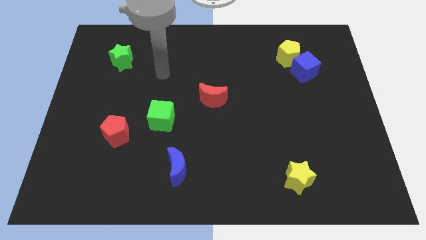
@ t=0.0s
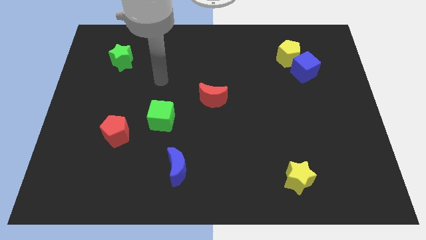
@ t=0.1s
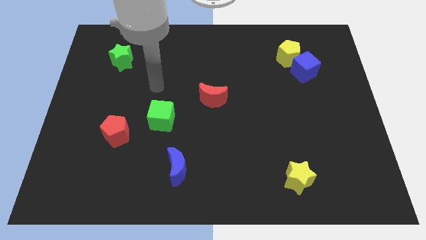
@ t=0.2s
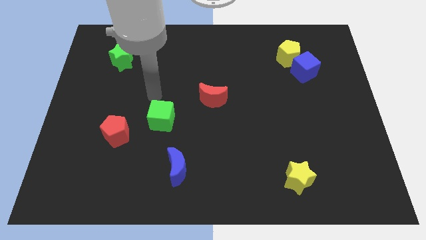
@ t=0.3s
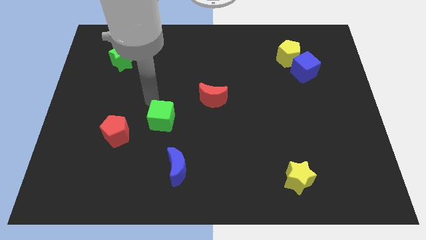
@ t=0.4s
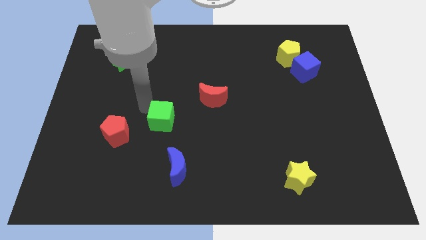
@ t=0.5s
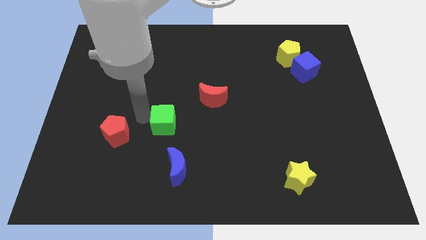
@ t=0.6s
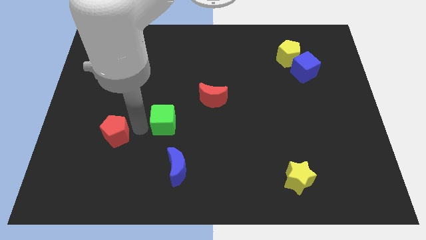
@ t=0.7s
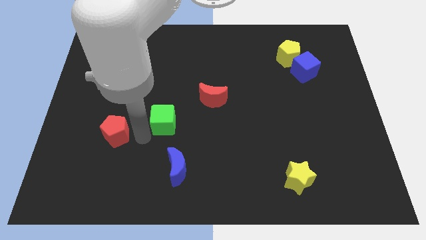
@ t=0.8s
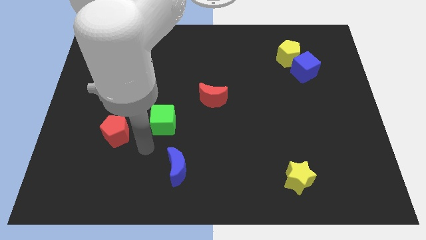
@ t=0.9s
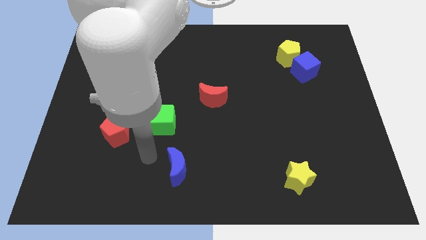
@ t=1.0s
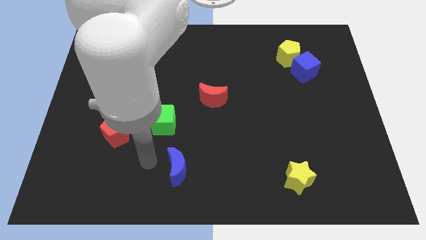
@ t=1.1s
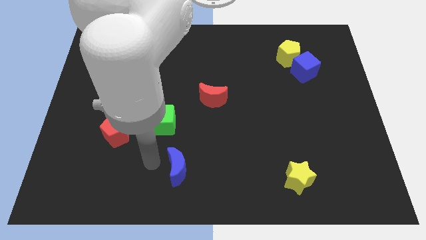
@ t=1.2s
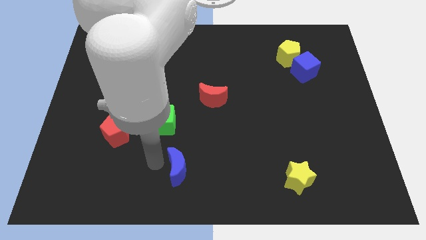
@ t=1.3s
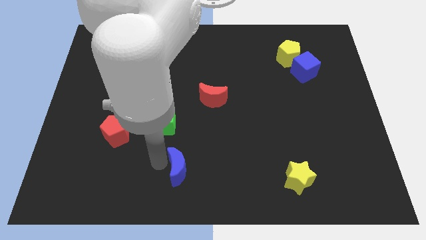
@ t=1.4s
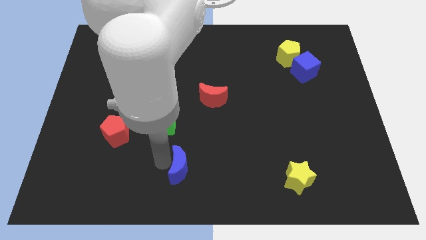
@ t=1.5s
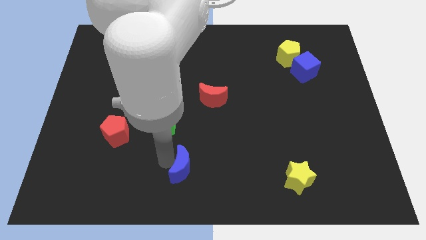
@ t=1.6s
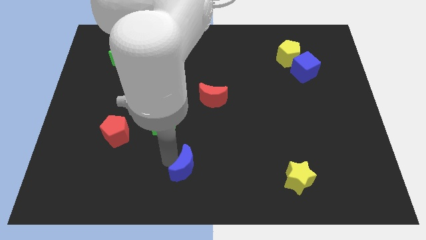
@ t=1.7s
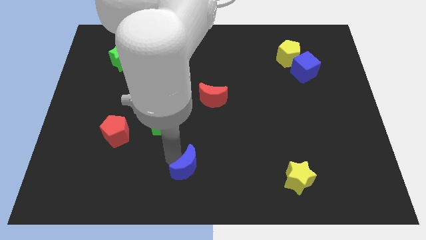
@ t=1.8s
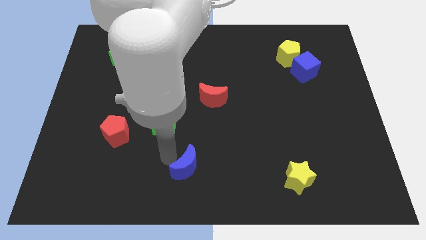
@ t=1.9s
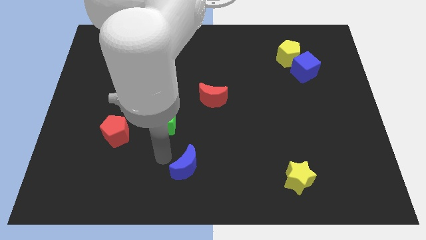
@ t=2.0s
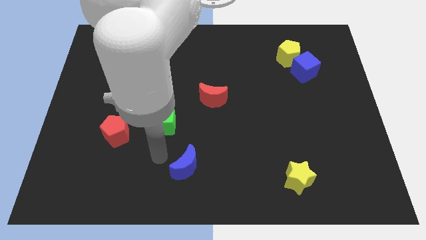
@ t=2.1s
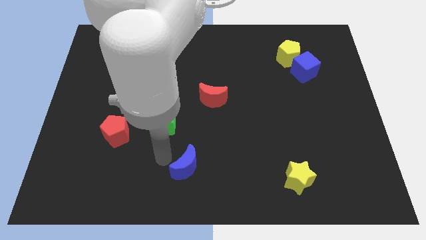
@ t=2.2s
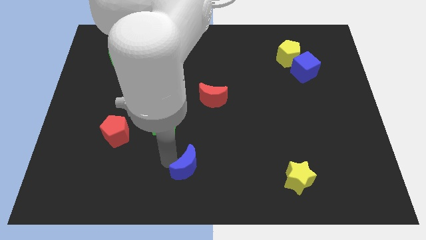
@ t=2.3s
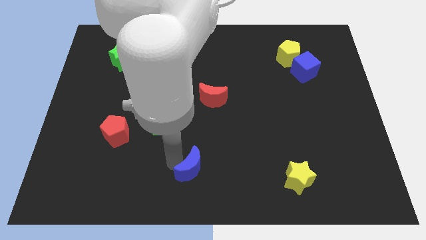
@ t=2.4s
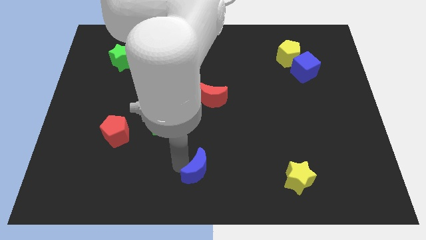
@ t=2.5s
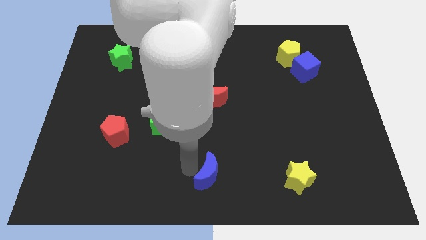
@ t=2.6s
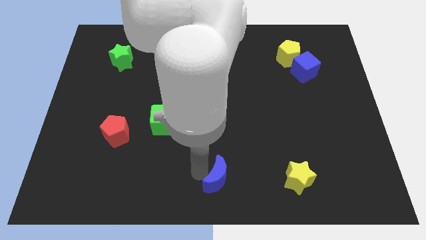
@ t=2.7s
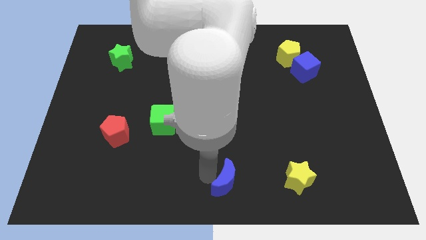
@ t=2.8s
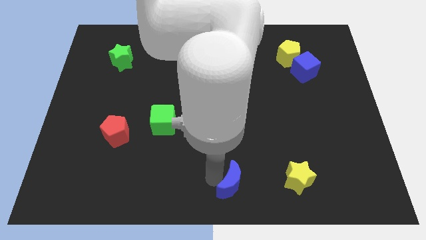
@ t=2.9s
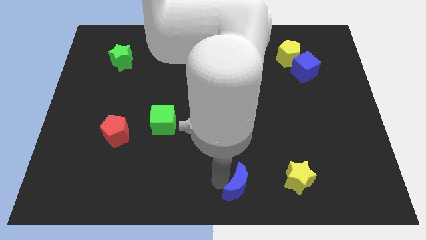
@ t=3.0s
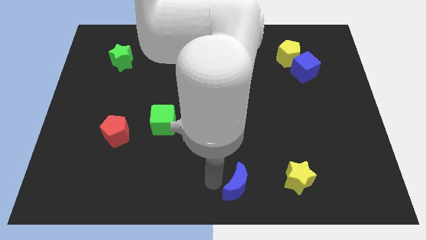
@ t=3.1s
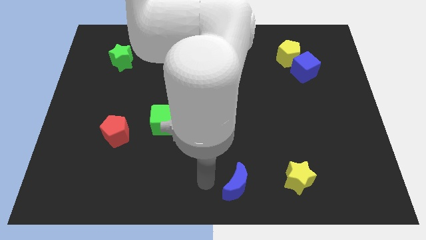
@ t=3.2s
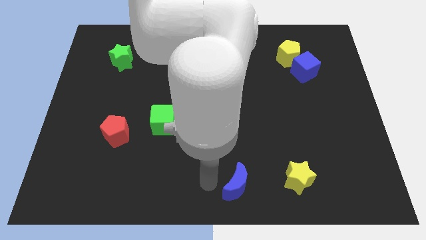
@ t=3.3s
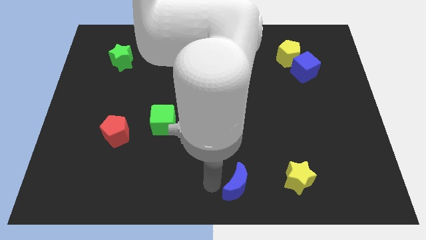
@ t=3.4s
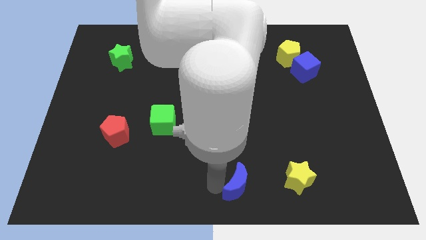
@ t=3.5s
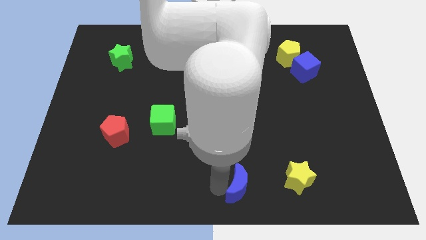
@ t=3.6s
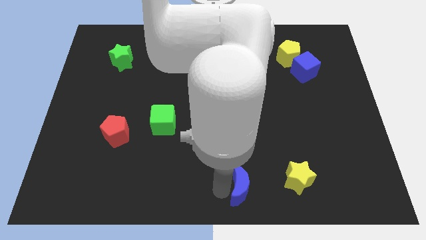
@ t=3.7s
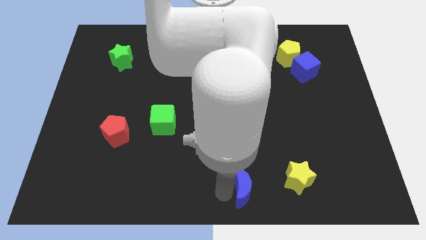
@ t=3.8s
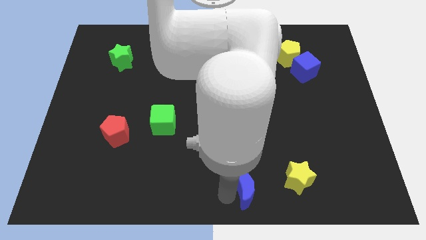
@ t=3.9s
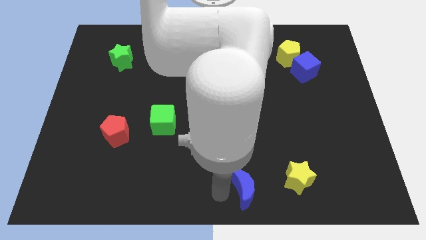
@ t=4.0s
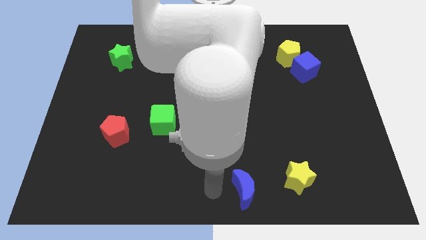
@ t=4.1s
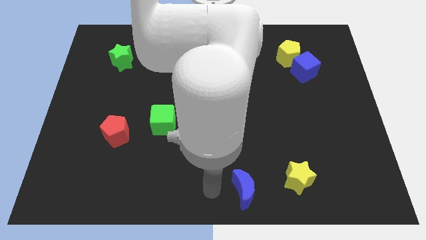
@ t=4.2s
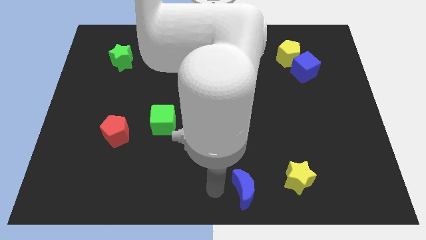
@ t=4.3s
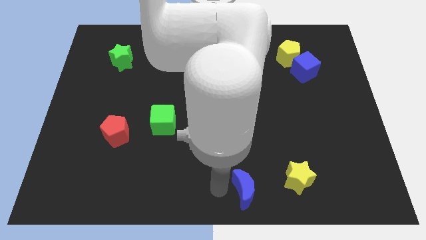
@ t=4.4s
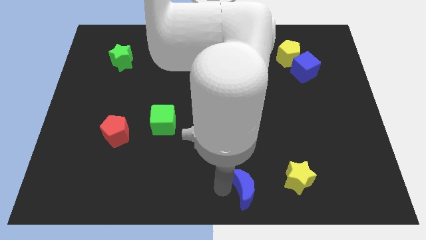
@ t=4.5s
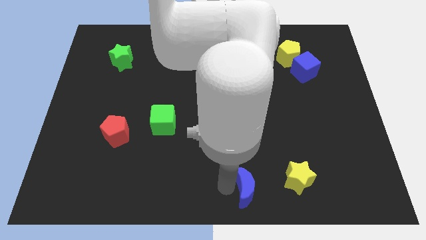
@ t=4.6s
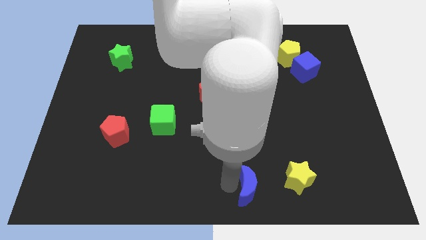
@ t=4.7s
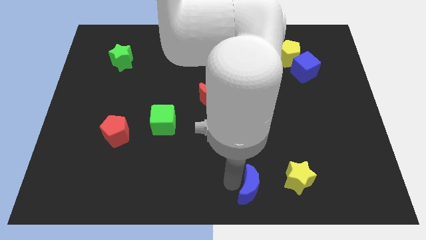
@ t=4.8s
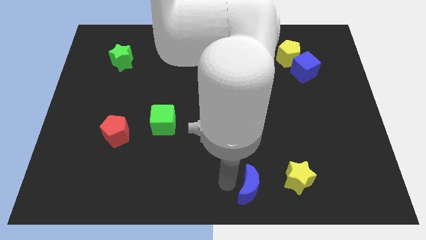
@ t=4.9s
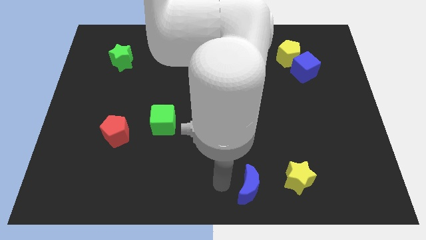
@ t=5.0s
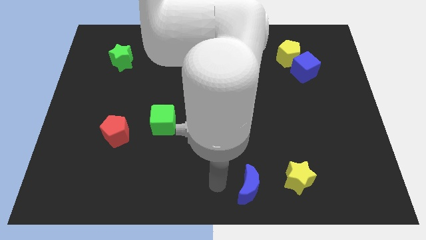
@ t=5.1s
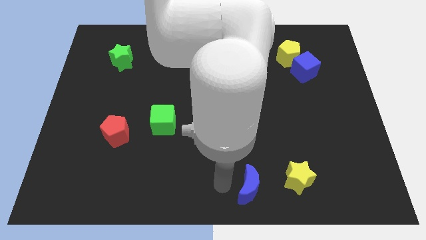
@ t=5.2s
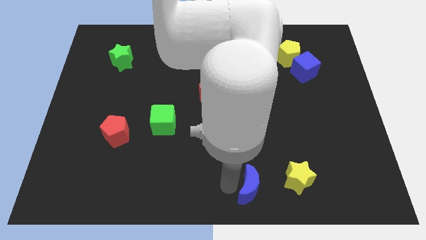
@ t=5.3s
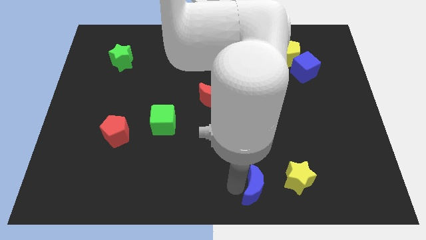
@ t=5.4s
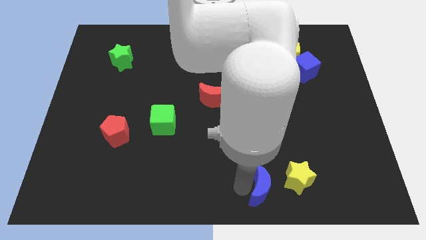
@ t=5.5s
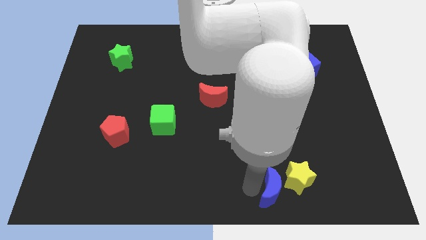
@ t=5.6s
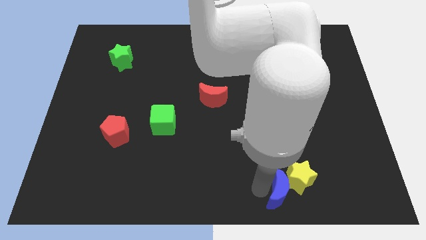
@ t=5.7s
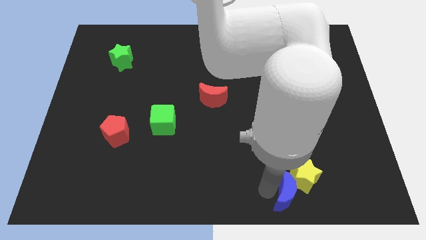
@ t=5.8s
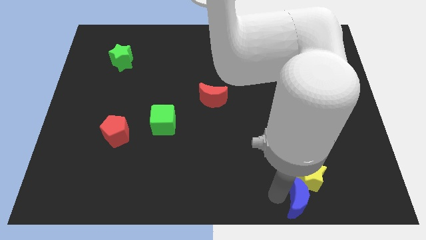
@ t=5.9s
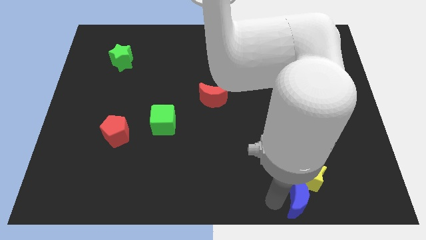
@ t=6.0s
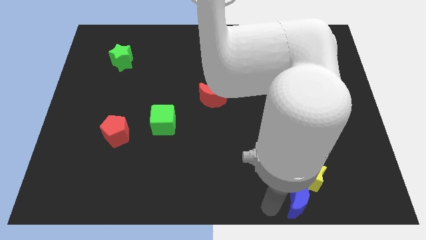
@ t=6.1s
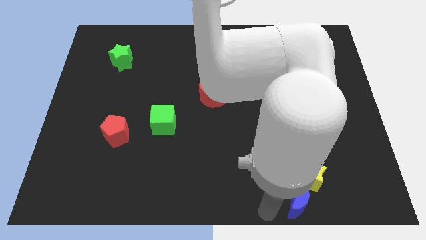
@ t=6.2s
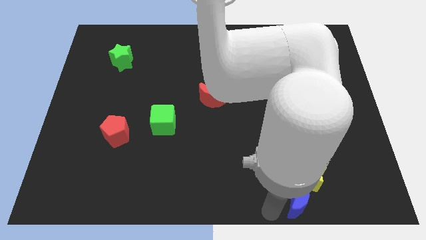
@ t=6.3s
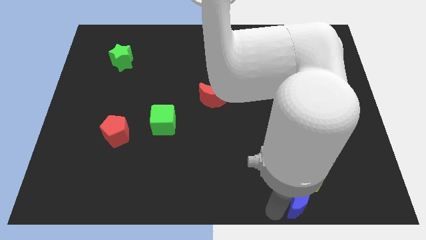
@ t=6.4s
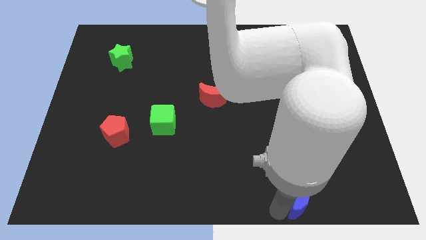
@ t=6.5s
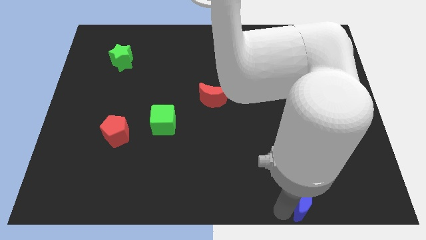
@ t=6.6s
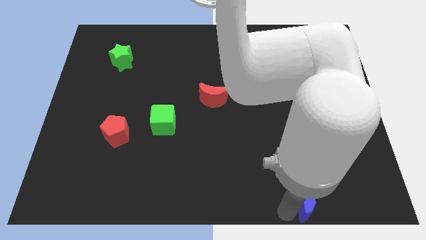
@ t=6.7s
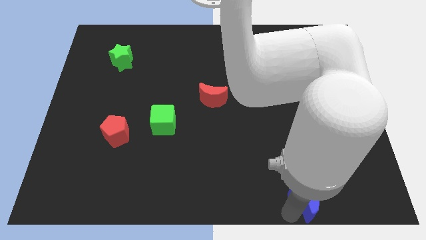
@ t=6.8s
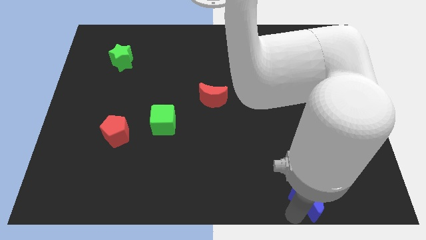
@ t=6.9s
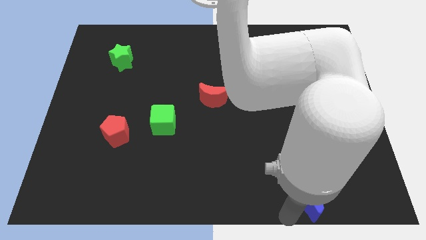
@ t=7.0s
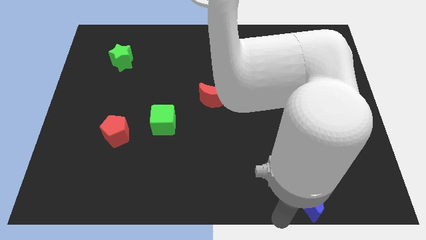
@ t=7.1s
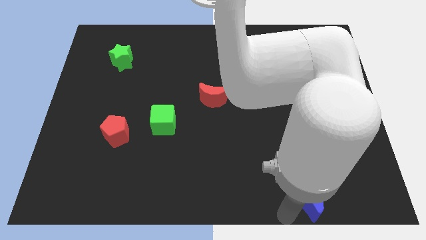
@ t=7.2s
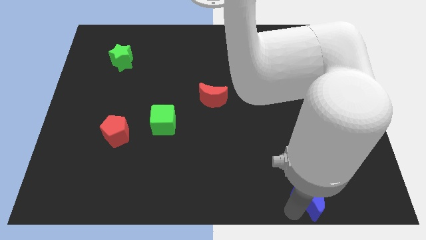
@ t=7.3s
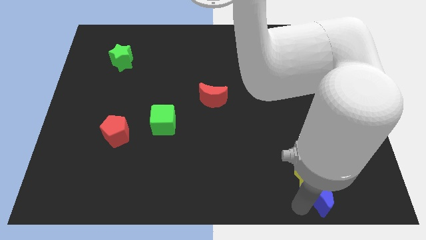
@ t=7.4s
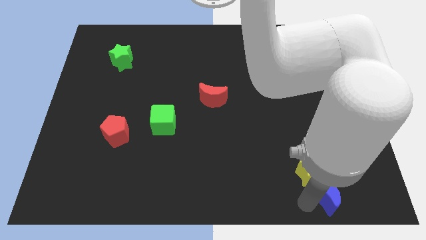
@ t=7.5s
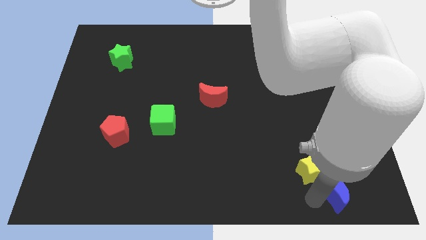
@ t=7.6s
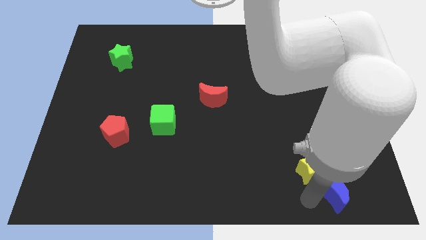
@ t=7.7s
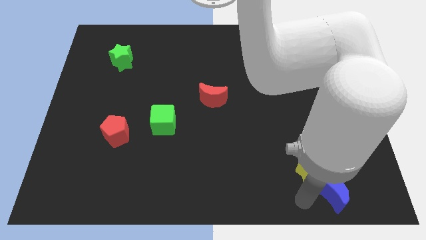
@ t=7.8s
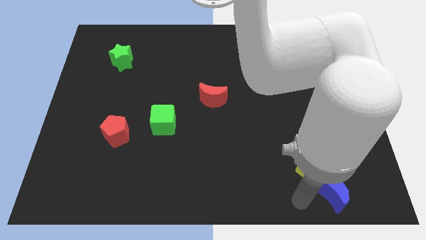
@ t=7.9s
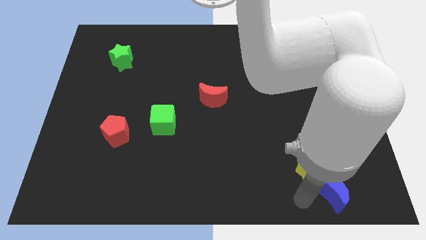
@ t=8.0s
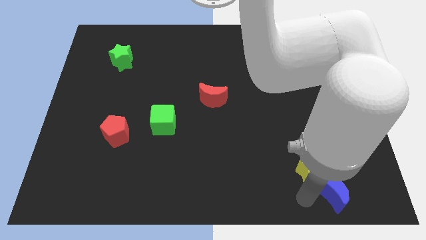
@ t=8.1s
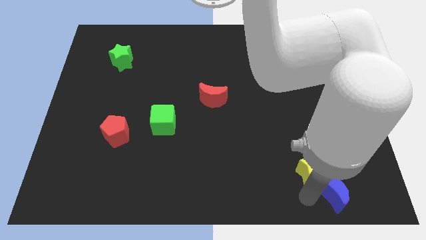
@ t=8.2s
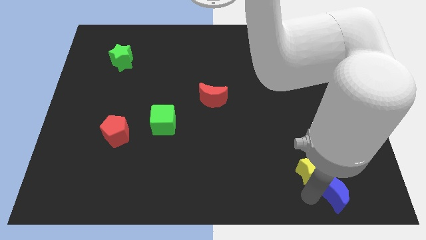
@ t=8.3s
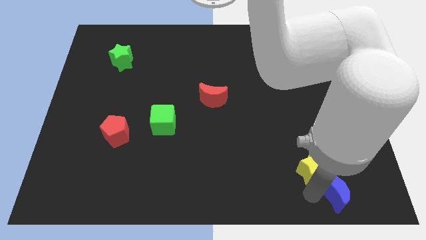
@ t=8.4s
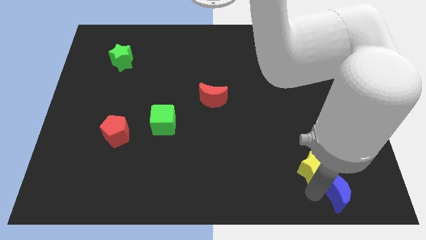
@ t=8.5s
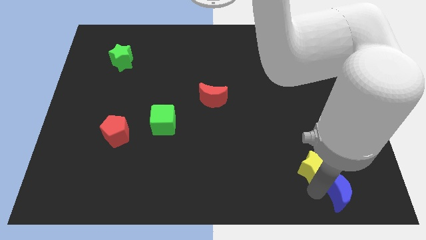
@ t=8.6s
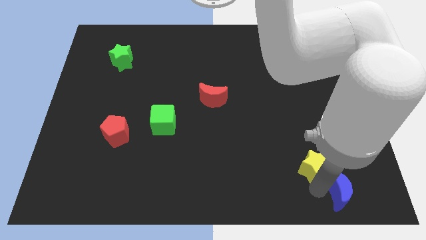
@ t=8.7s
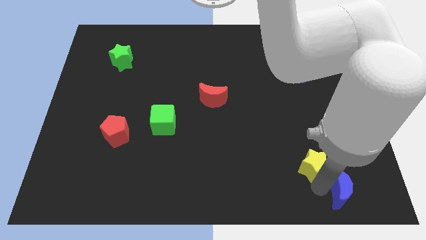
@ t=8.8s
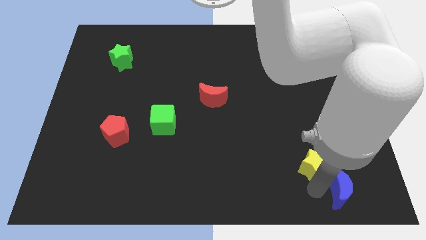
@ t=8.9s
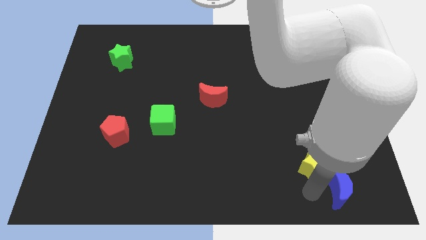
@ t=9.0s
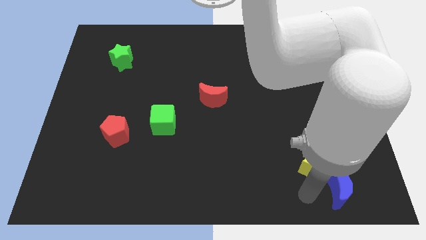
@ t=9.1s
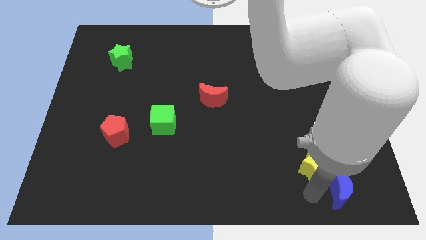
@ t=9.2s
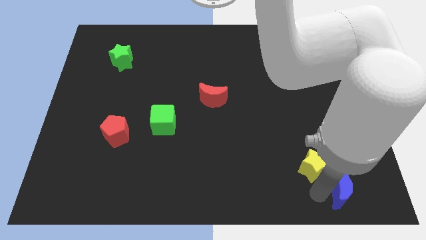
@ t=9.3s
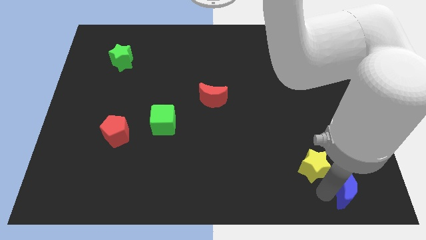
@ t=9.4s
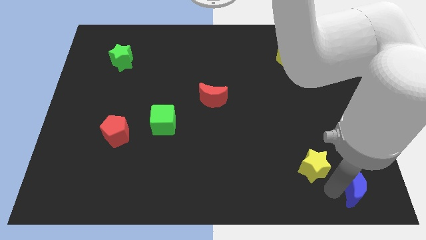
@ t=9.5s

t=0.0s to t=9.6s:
put the blue moon to the lower right corner
